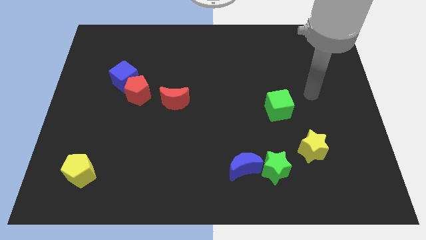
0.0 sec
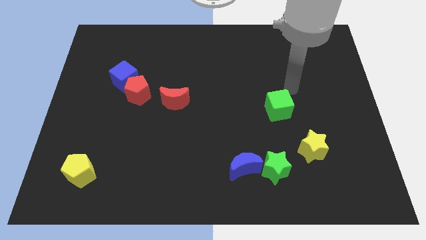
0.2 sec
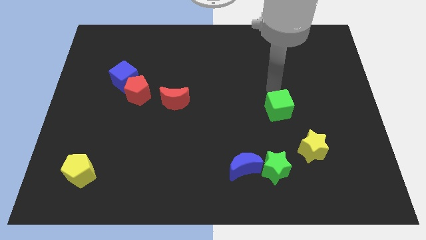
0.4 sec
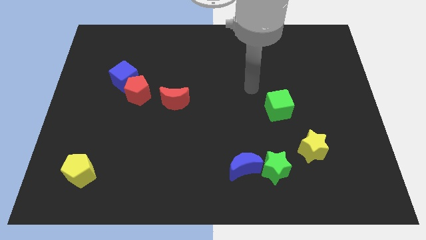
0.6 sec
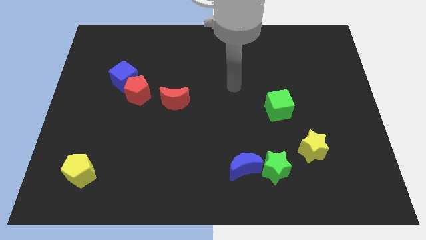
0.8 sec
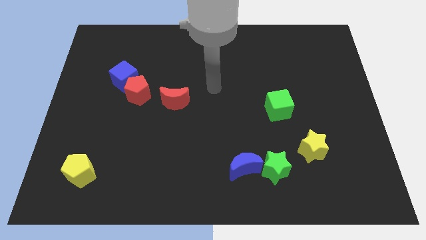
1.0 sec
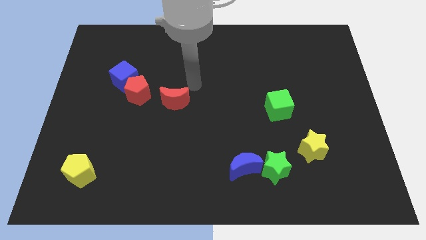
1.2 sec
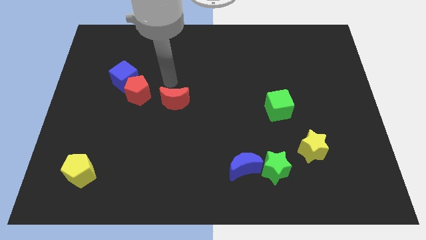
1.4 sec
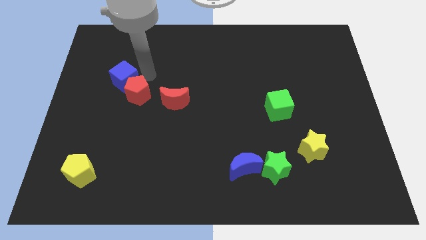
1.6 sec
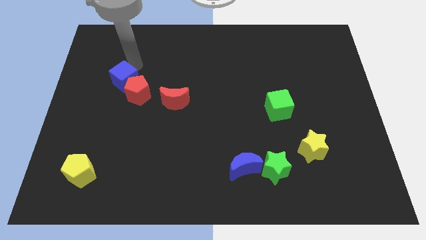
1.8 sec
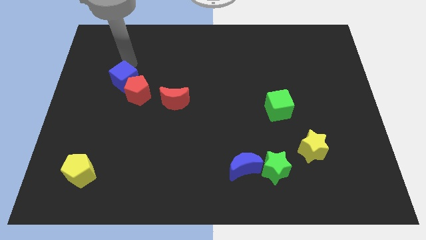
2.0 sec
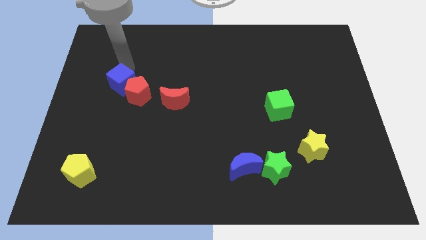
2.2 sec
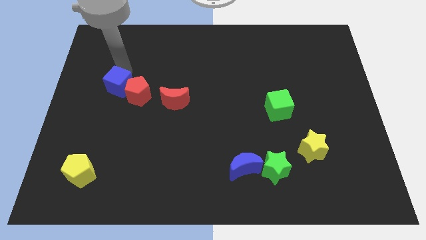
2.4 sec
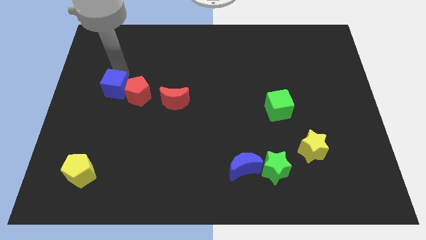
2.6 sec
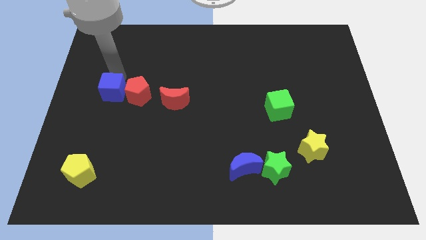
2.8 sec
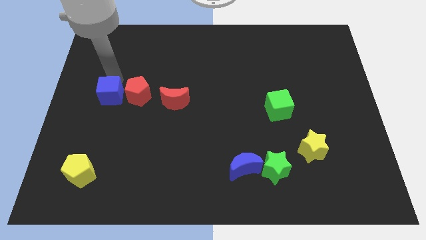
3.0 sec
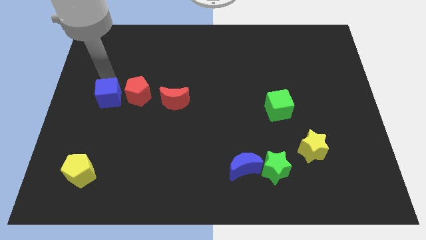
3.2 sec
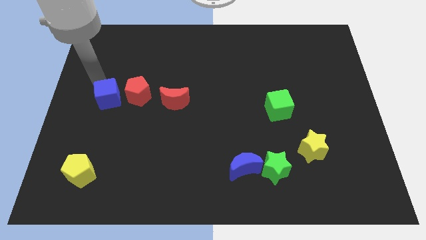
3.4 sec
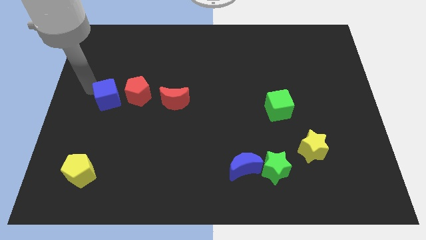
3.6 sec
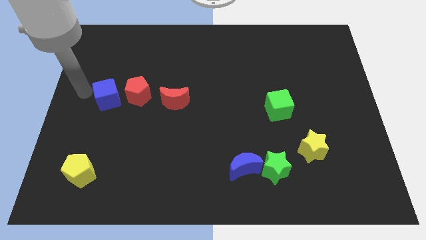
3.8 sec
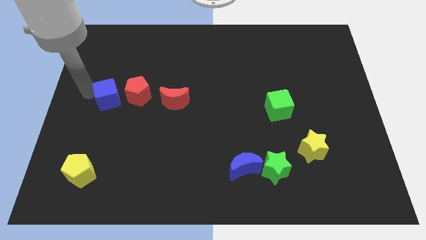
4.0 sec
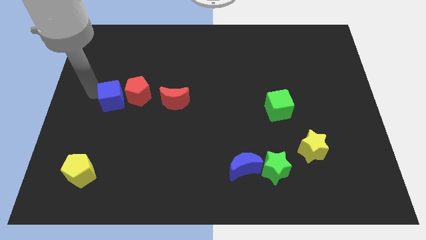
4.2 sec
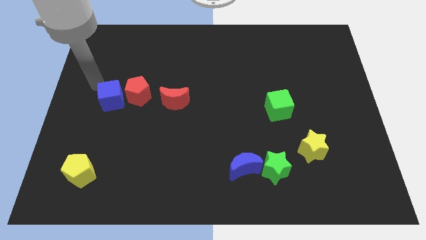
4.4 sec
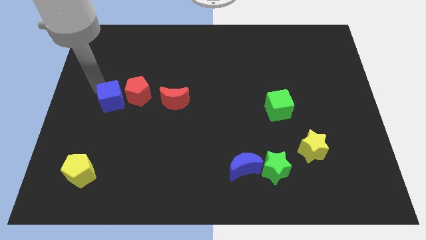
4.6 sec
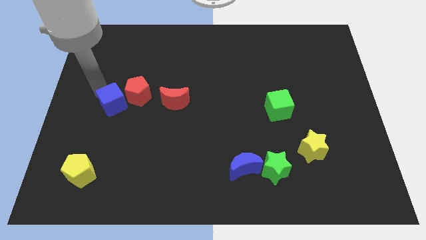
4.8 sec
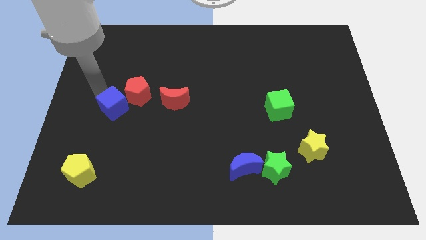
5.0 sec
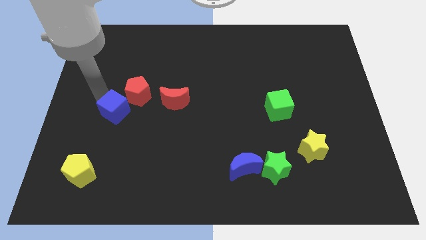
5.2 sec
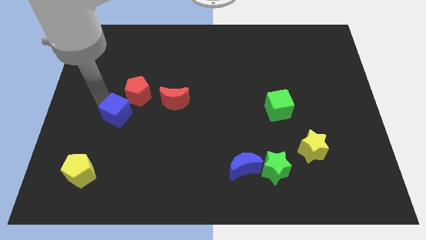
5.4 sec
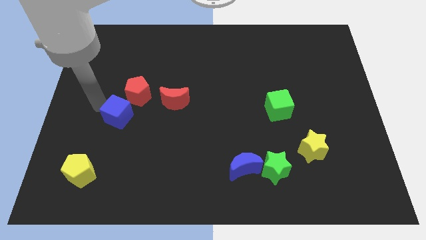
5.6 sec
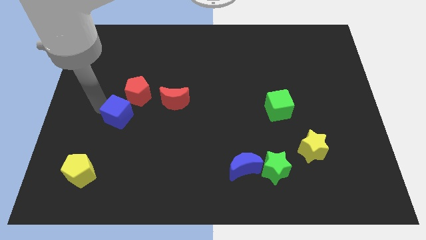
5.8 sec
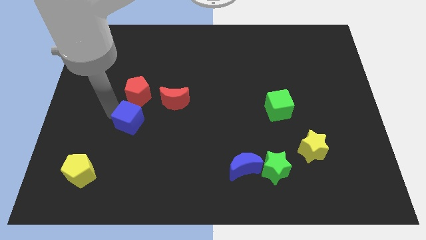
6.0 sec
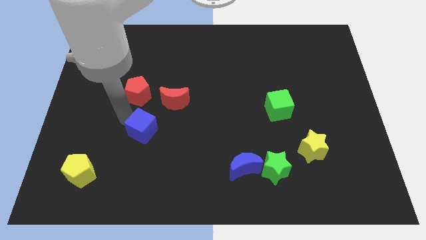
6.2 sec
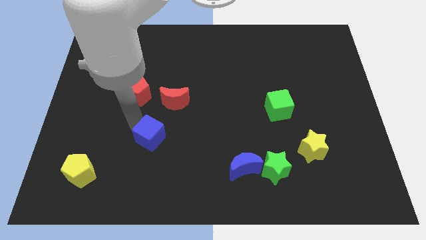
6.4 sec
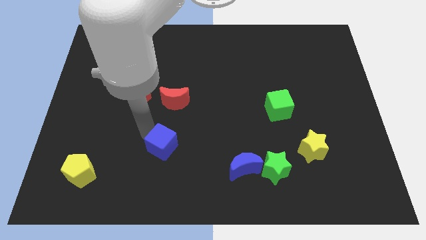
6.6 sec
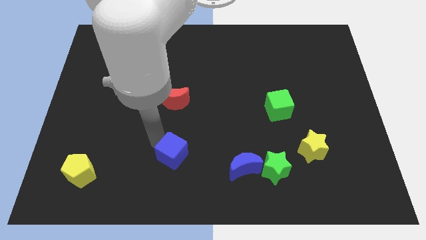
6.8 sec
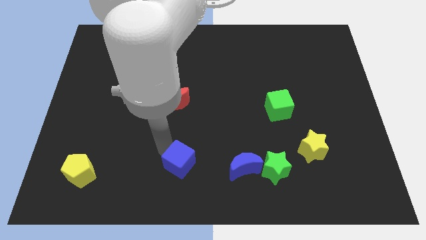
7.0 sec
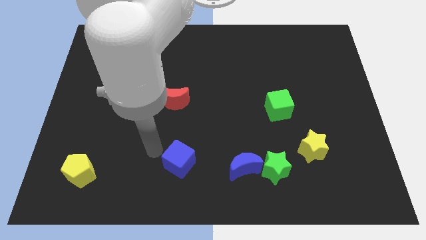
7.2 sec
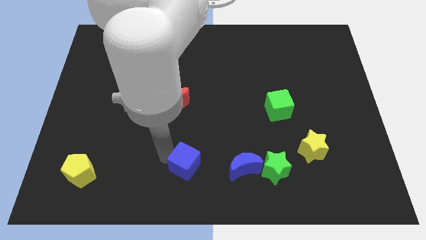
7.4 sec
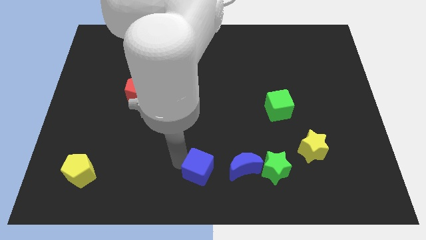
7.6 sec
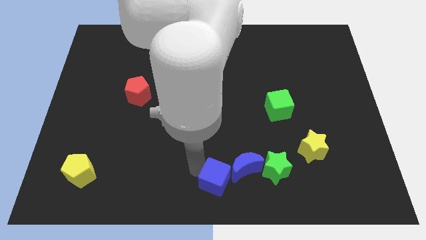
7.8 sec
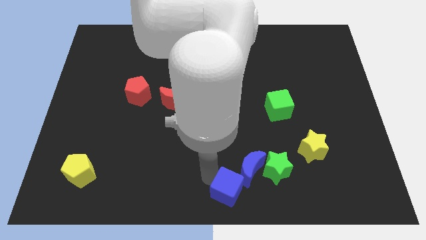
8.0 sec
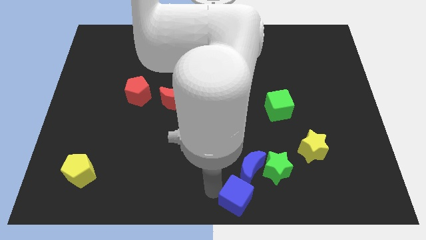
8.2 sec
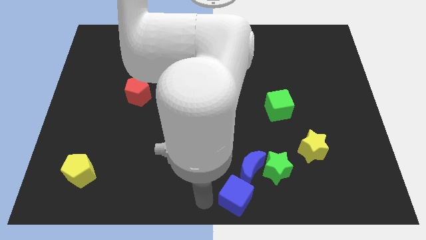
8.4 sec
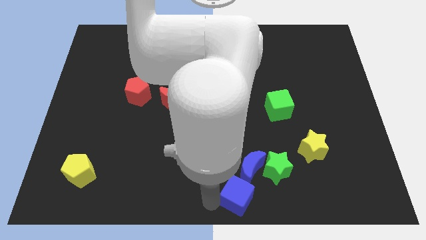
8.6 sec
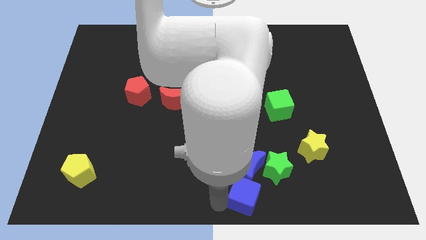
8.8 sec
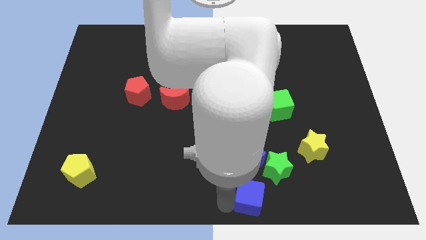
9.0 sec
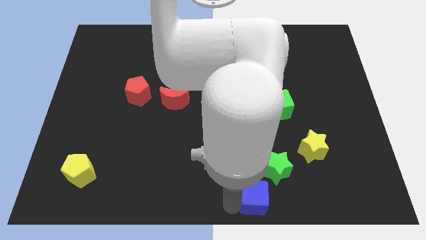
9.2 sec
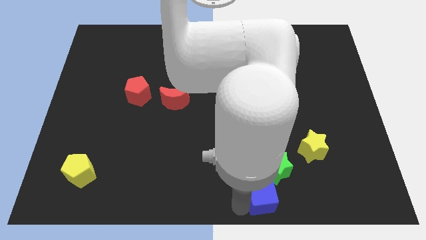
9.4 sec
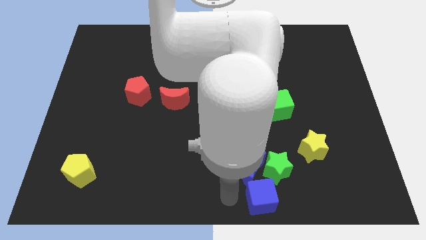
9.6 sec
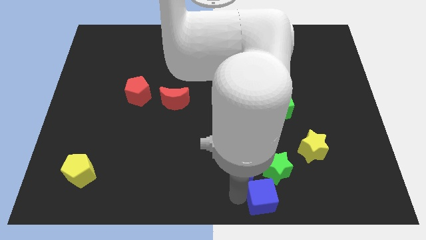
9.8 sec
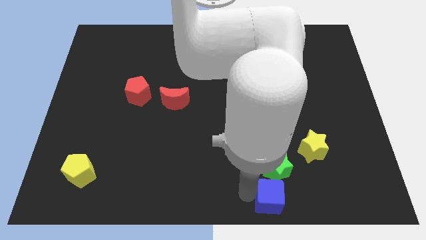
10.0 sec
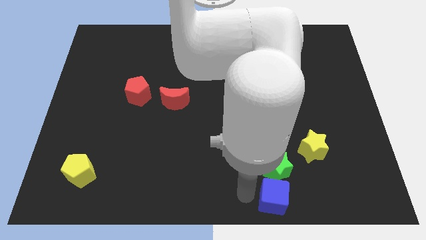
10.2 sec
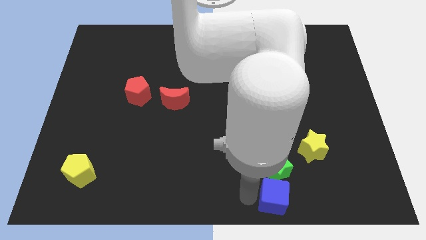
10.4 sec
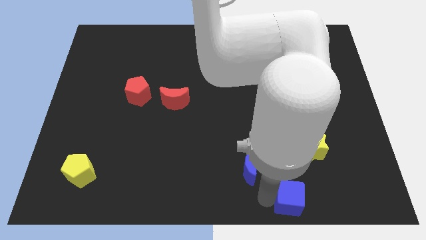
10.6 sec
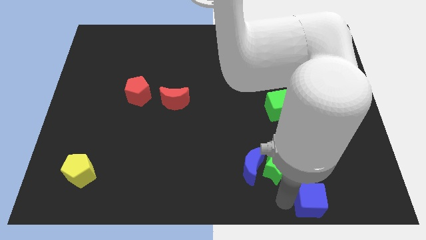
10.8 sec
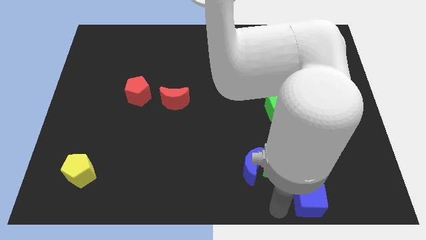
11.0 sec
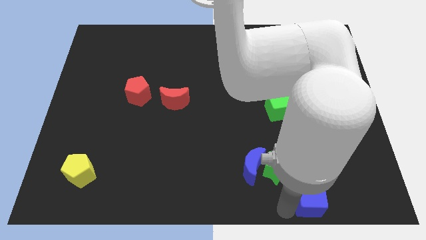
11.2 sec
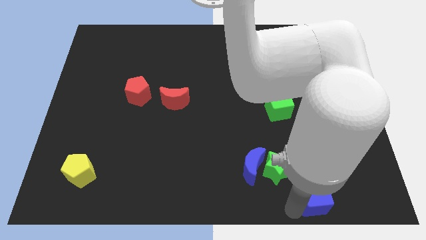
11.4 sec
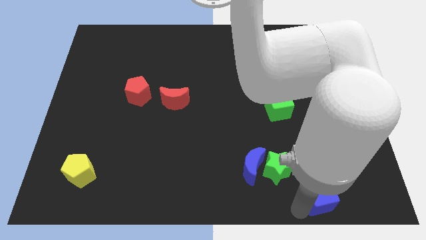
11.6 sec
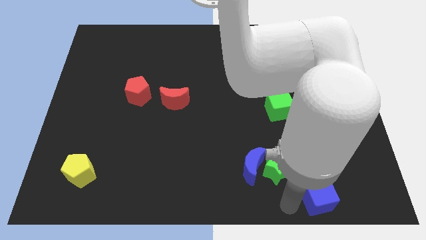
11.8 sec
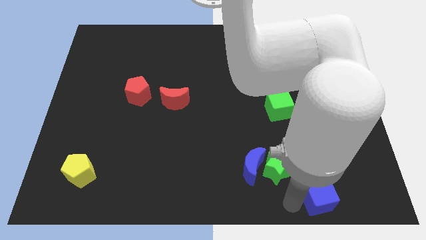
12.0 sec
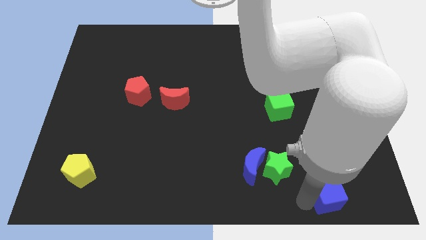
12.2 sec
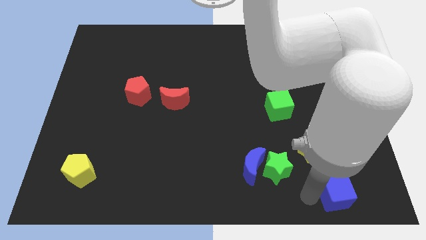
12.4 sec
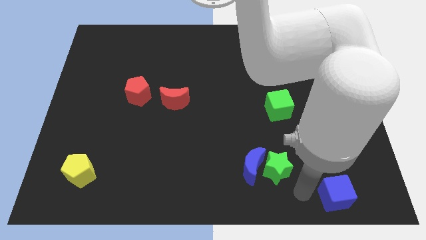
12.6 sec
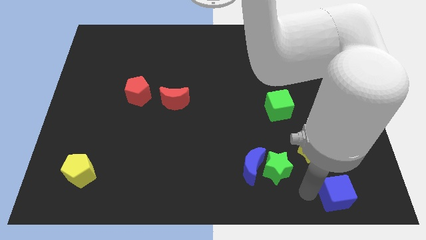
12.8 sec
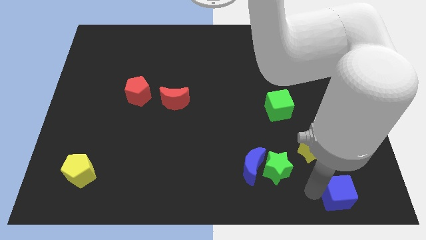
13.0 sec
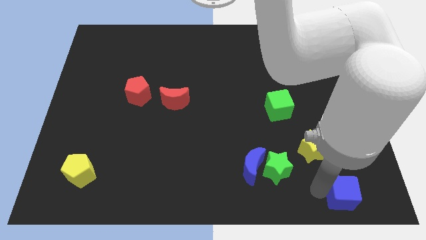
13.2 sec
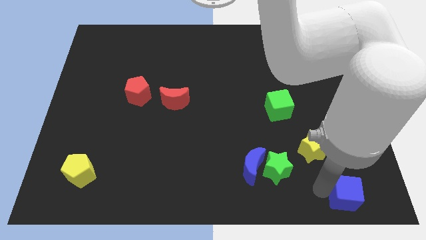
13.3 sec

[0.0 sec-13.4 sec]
move the blue cube to the bottom right
